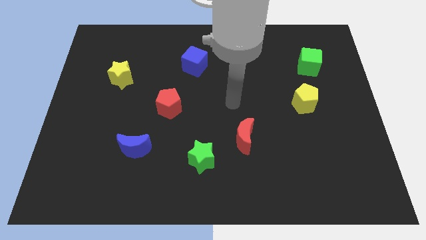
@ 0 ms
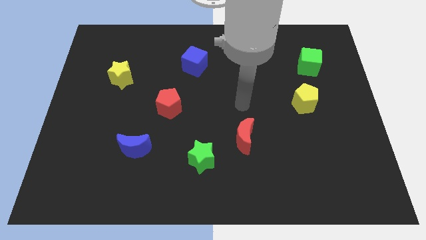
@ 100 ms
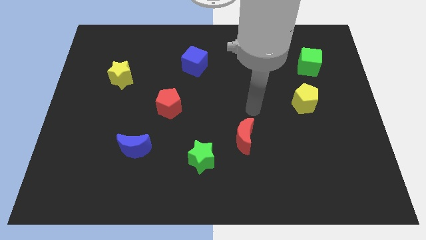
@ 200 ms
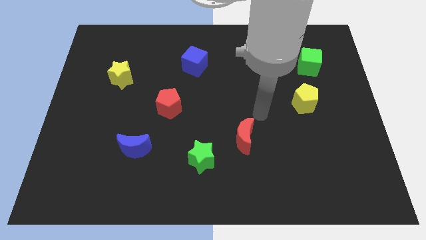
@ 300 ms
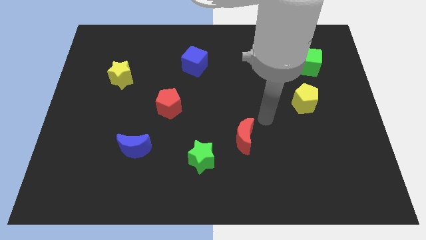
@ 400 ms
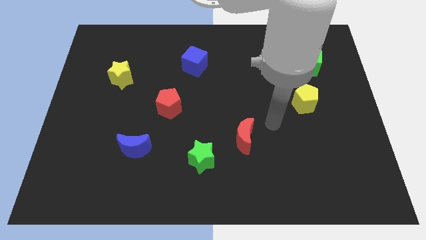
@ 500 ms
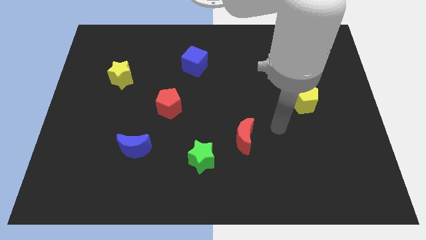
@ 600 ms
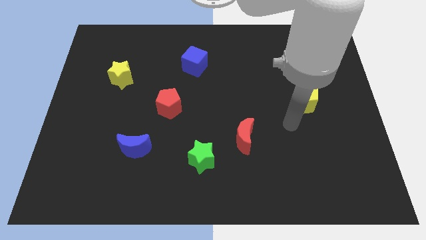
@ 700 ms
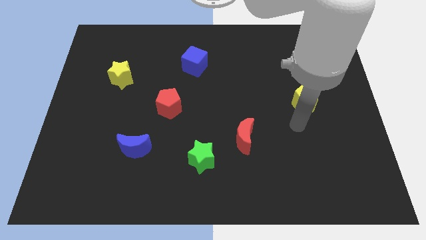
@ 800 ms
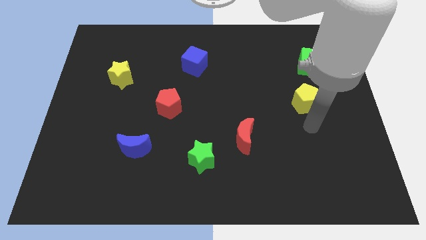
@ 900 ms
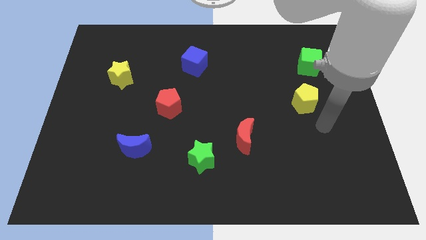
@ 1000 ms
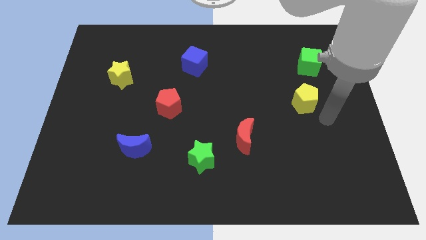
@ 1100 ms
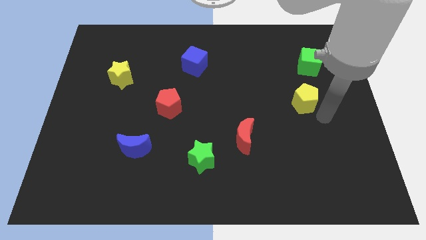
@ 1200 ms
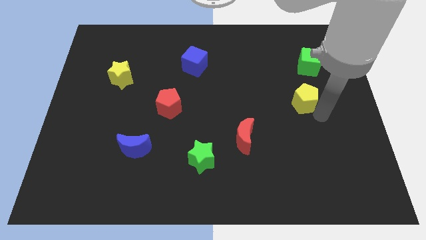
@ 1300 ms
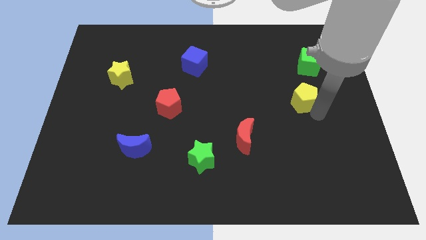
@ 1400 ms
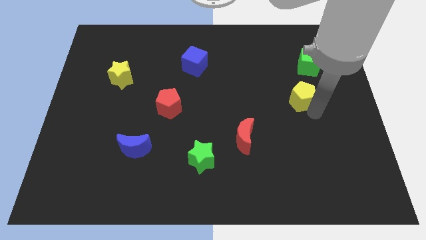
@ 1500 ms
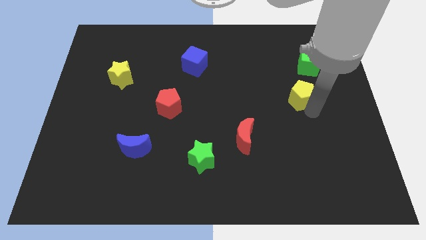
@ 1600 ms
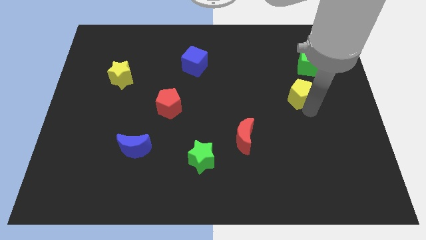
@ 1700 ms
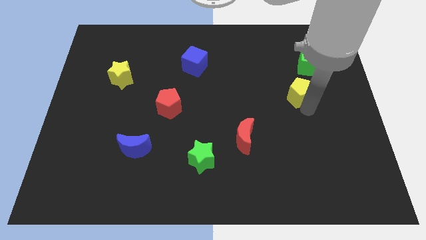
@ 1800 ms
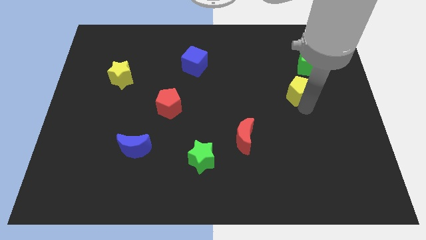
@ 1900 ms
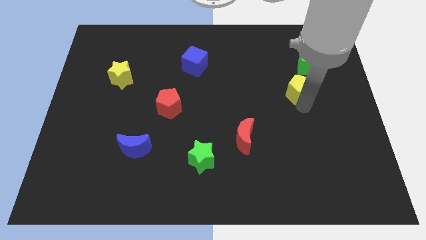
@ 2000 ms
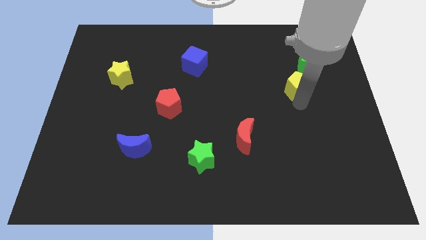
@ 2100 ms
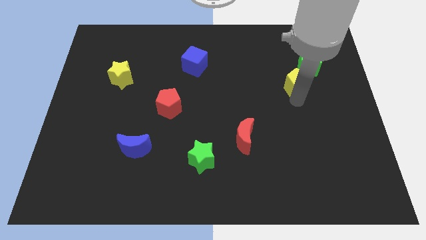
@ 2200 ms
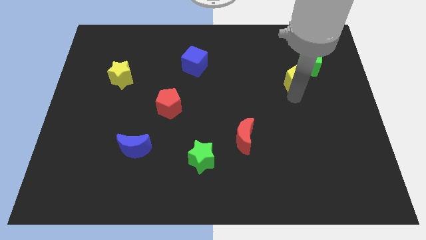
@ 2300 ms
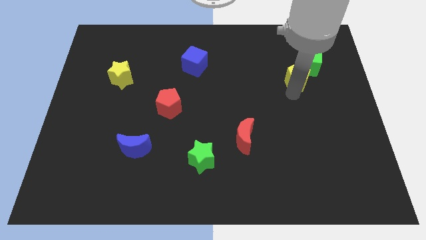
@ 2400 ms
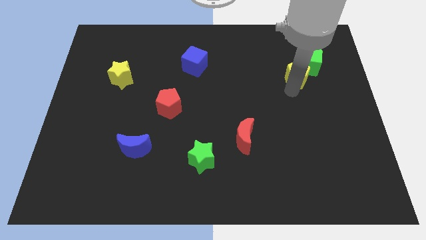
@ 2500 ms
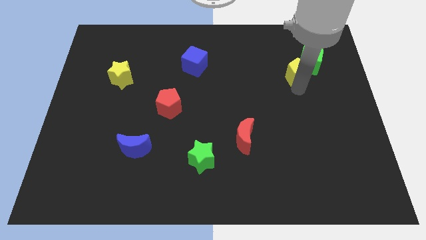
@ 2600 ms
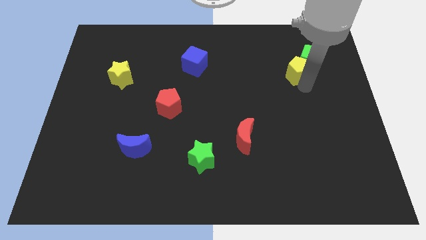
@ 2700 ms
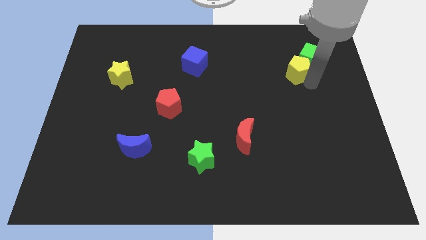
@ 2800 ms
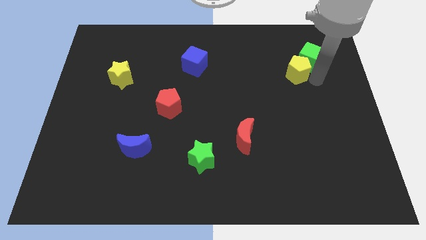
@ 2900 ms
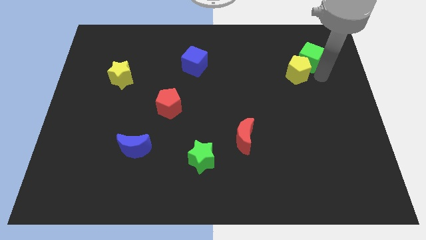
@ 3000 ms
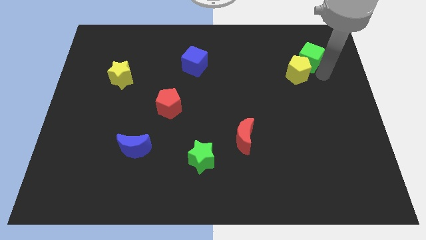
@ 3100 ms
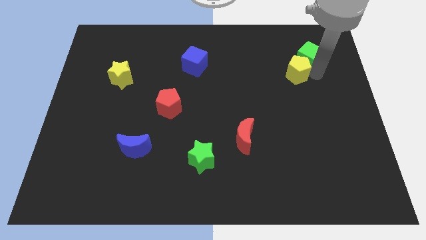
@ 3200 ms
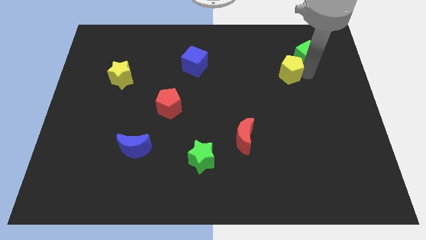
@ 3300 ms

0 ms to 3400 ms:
slightly slide the yellow pentagon upwards and to the left

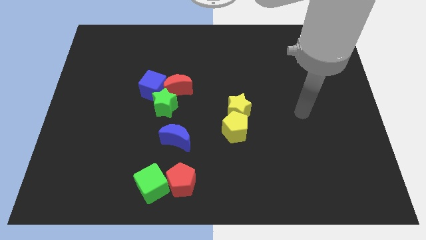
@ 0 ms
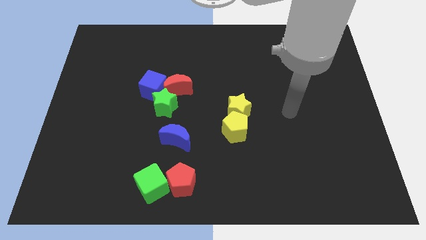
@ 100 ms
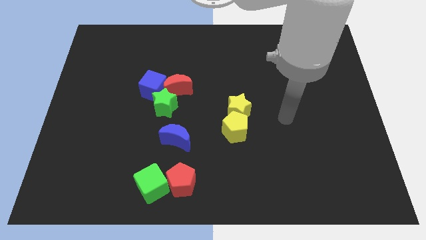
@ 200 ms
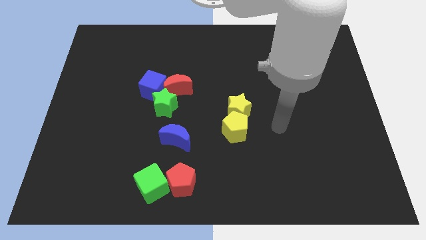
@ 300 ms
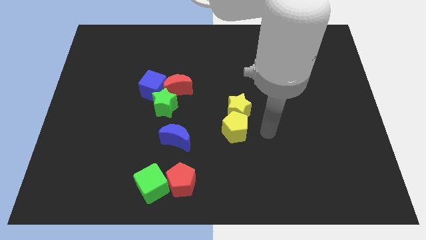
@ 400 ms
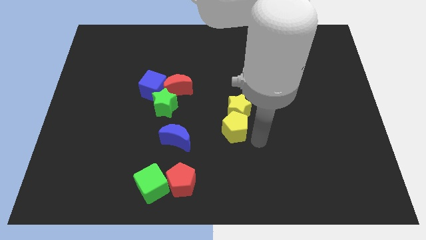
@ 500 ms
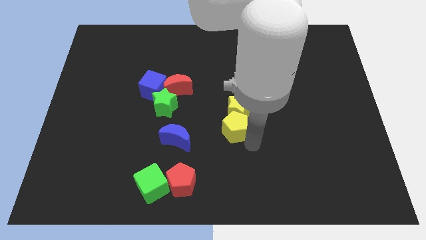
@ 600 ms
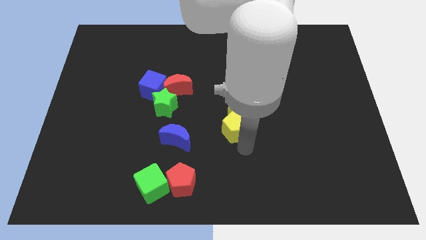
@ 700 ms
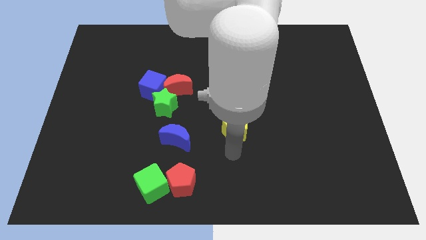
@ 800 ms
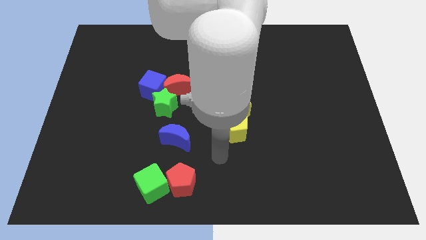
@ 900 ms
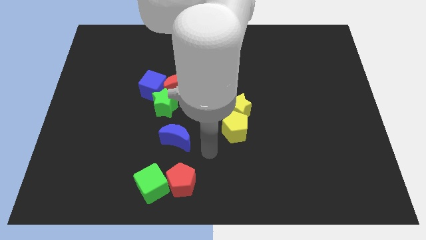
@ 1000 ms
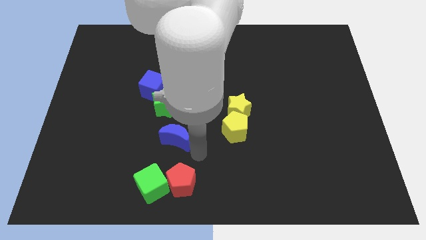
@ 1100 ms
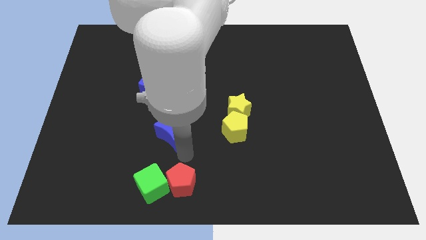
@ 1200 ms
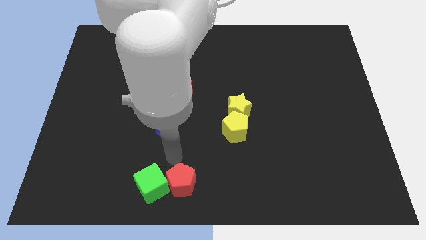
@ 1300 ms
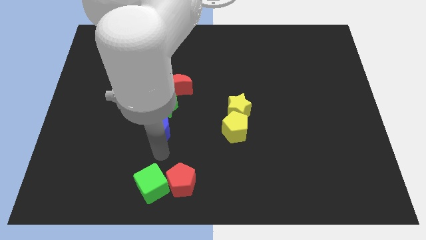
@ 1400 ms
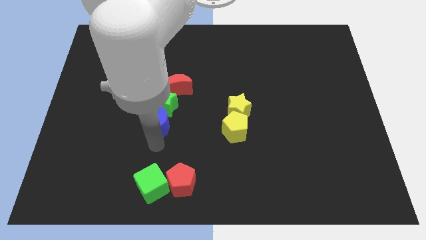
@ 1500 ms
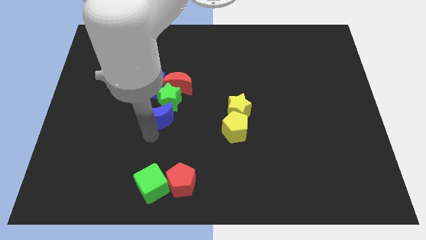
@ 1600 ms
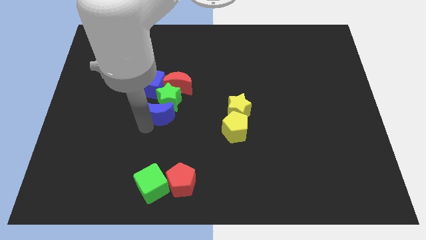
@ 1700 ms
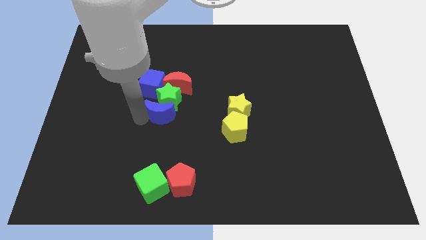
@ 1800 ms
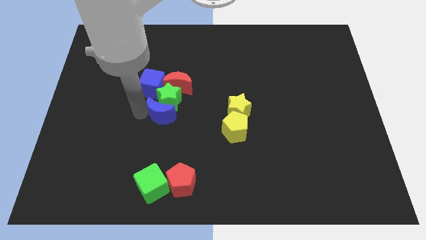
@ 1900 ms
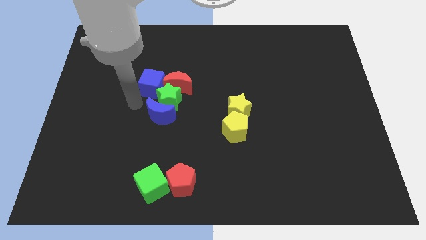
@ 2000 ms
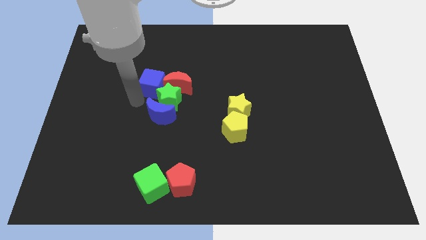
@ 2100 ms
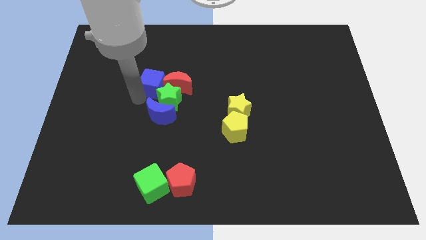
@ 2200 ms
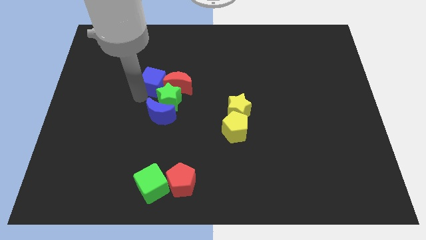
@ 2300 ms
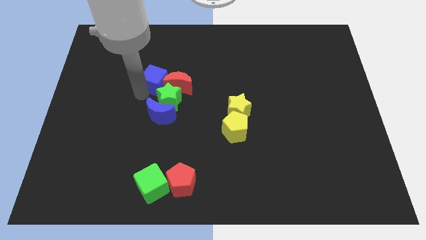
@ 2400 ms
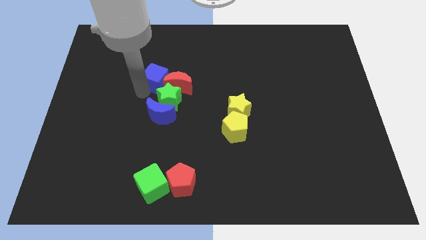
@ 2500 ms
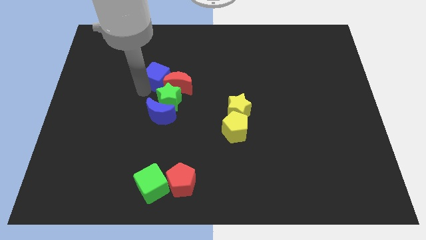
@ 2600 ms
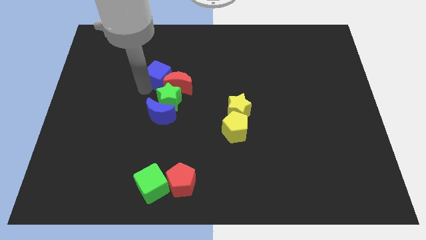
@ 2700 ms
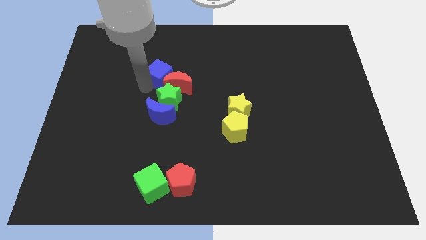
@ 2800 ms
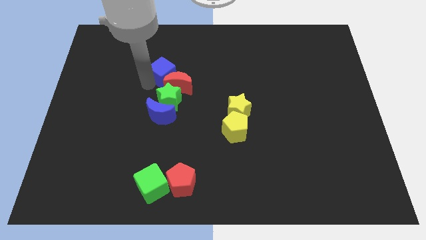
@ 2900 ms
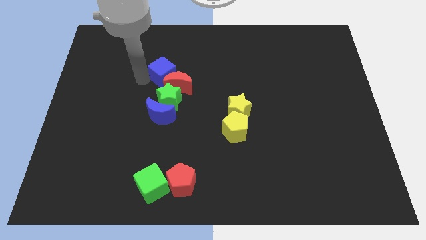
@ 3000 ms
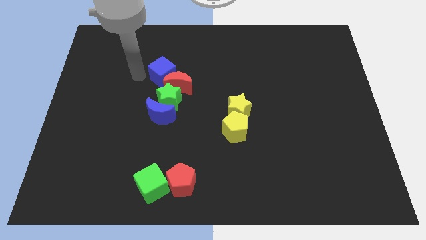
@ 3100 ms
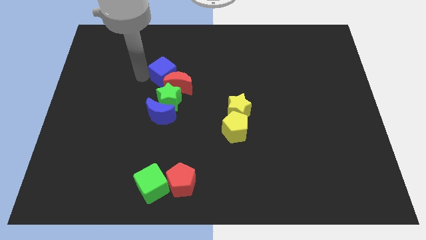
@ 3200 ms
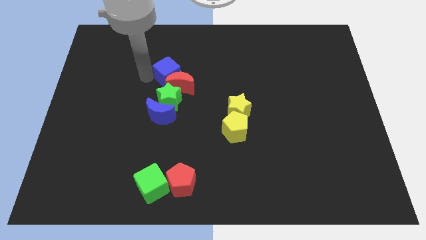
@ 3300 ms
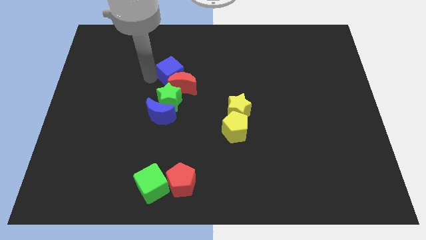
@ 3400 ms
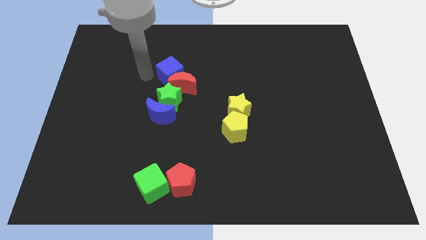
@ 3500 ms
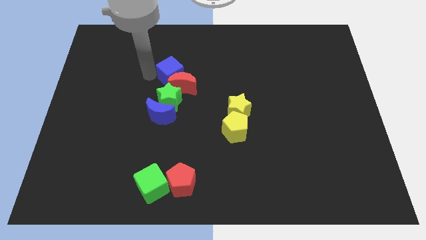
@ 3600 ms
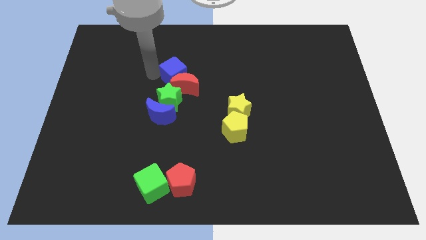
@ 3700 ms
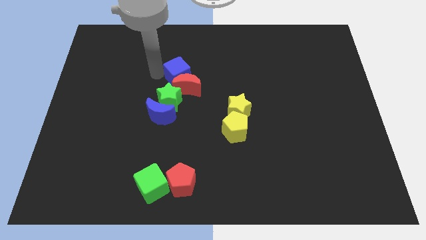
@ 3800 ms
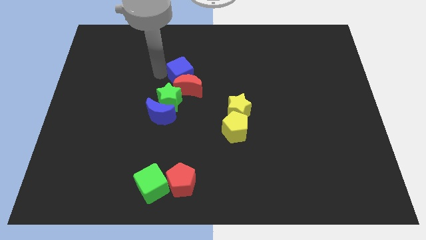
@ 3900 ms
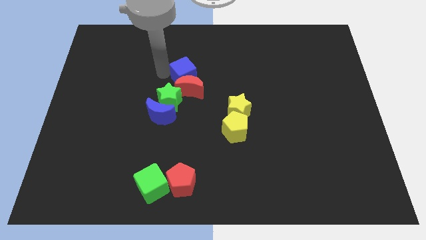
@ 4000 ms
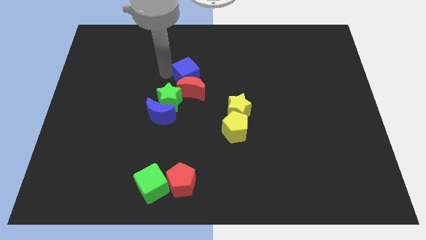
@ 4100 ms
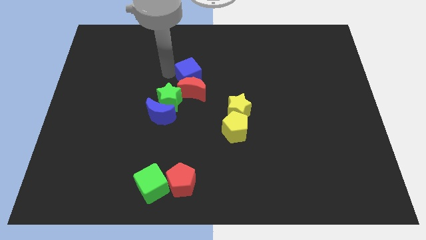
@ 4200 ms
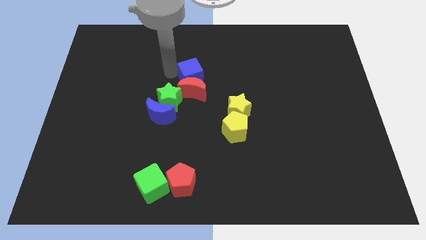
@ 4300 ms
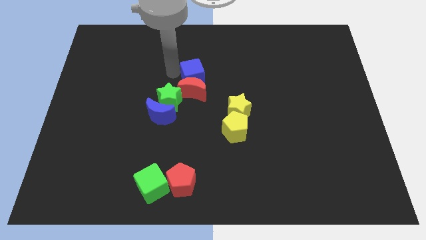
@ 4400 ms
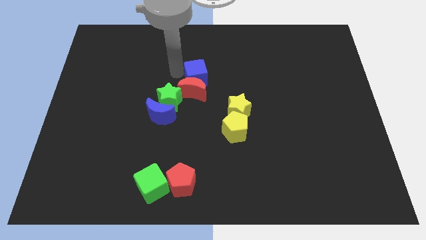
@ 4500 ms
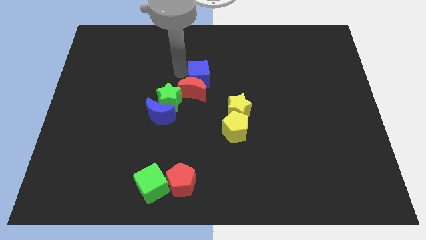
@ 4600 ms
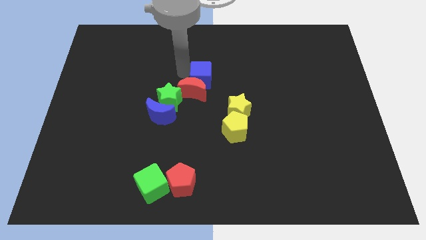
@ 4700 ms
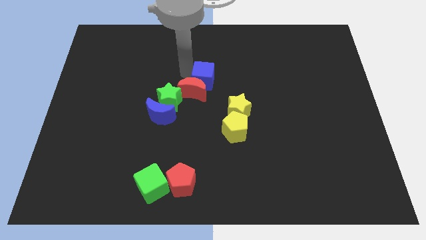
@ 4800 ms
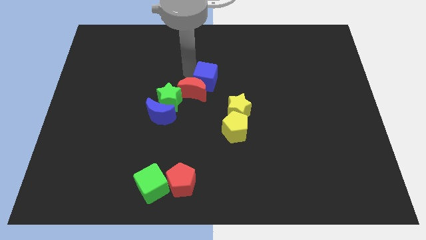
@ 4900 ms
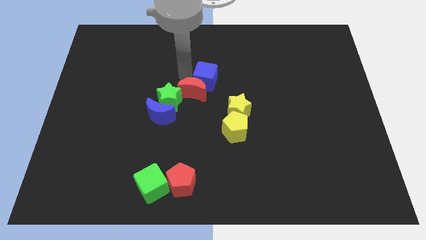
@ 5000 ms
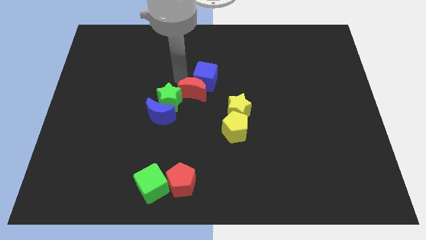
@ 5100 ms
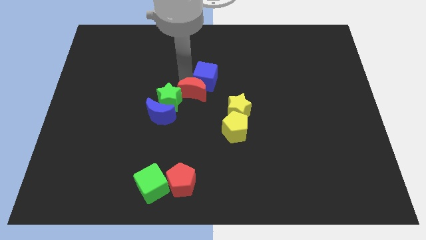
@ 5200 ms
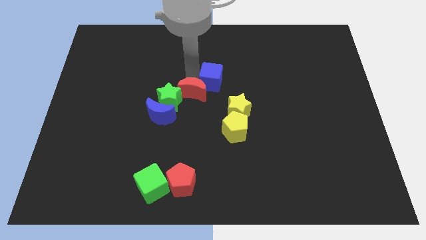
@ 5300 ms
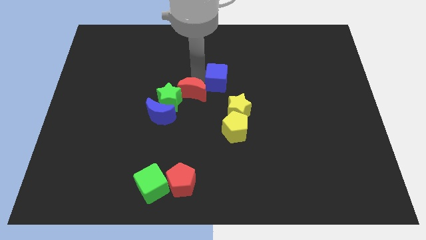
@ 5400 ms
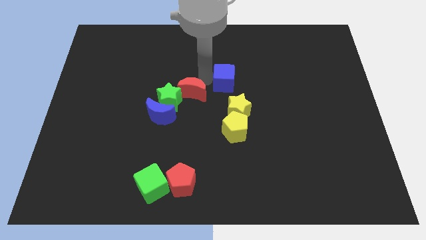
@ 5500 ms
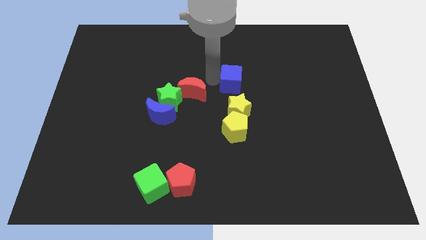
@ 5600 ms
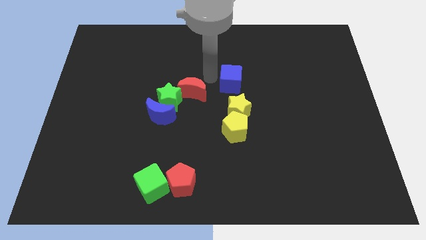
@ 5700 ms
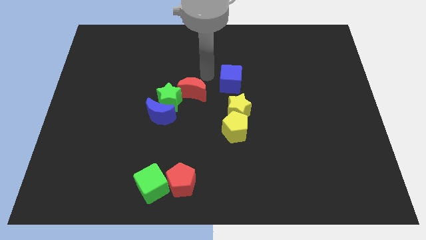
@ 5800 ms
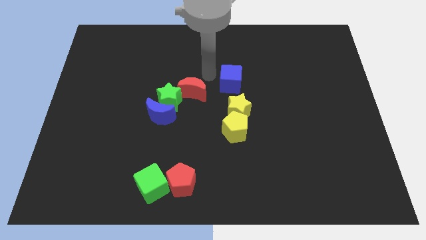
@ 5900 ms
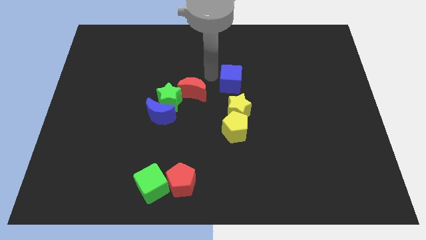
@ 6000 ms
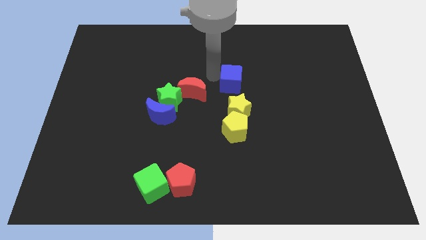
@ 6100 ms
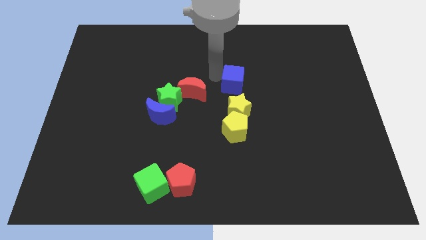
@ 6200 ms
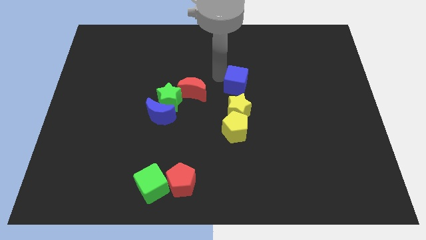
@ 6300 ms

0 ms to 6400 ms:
push the blue cube to the right
